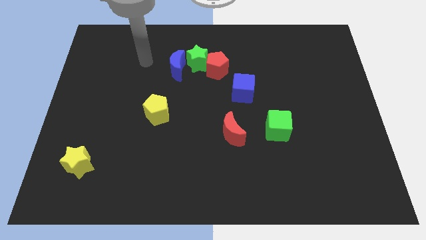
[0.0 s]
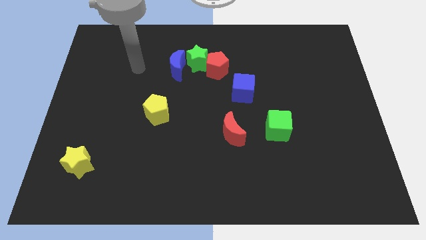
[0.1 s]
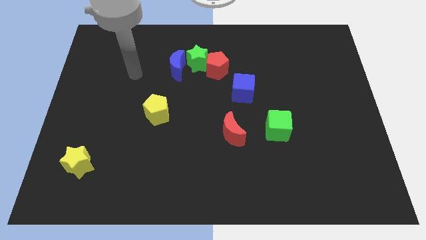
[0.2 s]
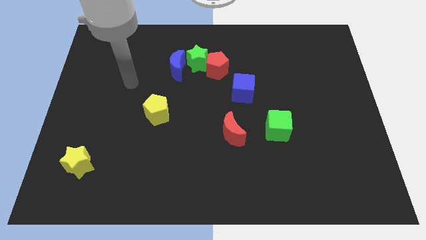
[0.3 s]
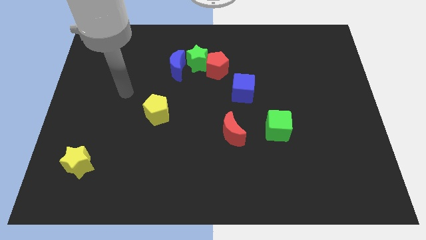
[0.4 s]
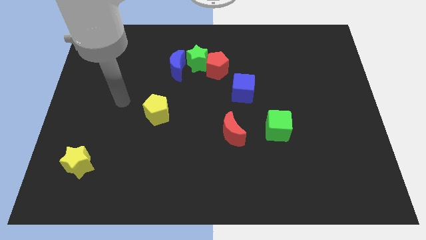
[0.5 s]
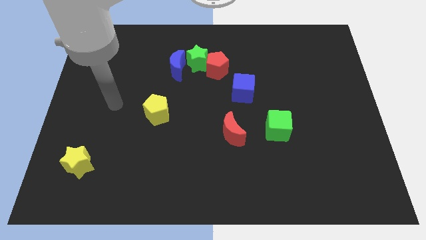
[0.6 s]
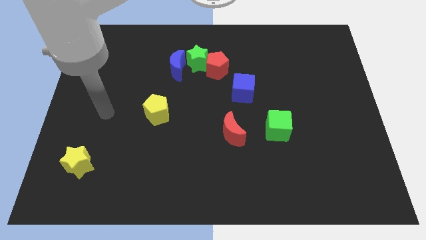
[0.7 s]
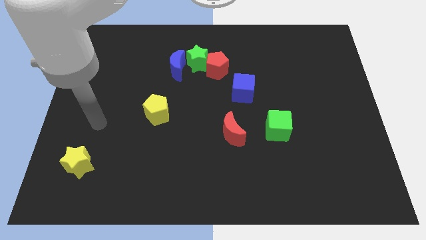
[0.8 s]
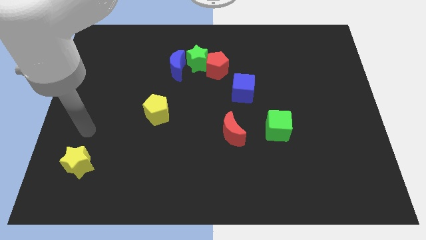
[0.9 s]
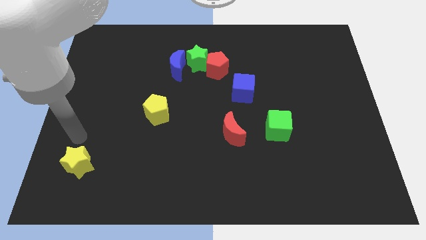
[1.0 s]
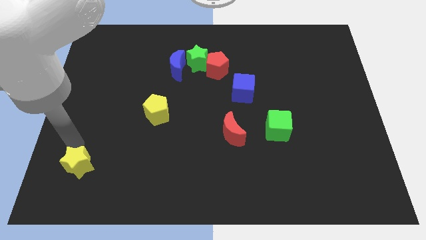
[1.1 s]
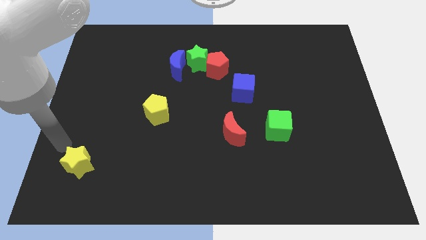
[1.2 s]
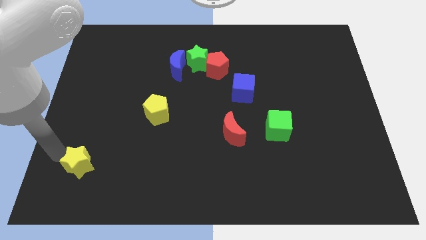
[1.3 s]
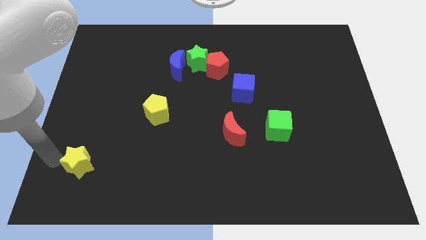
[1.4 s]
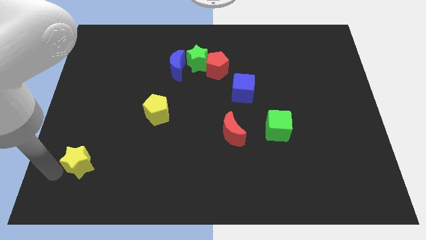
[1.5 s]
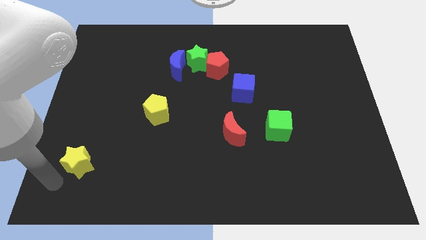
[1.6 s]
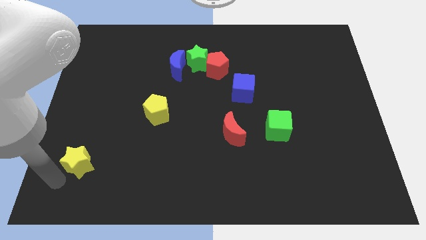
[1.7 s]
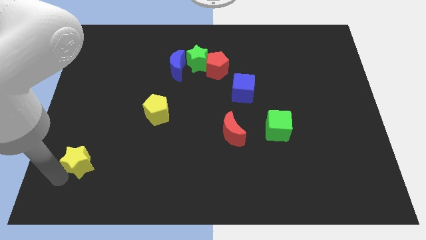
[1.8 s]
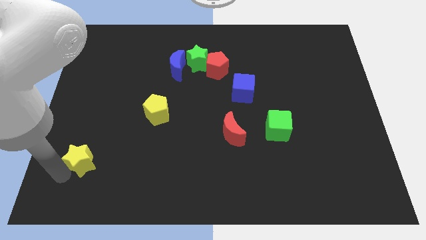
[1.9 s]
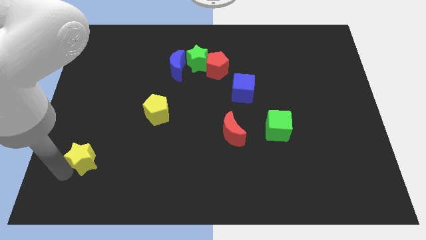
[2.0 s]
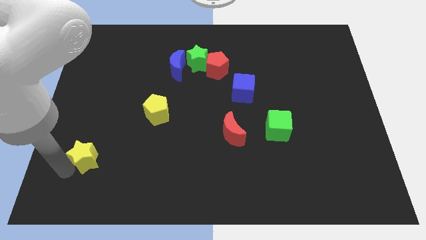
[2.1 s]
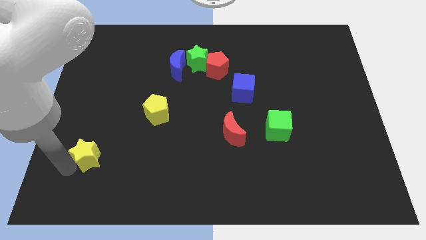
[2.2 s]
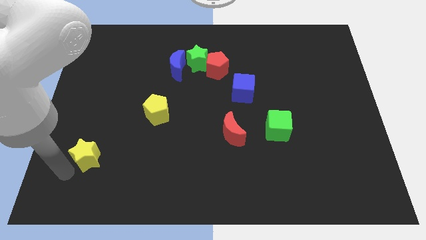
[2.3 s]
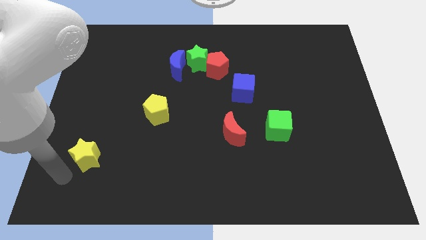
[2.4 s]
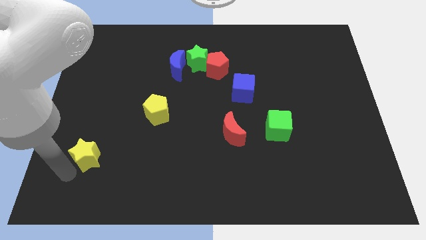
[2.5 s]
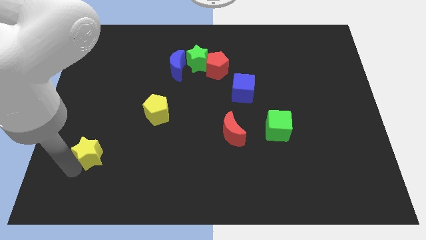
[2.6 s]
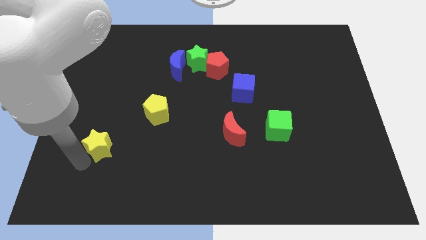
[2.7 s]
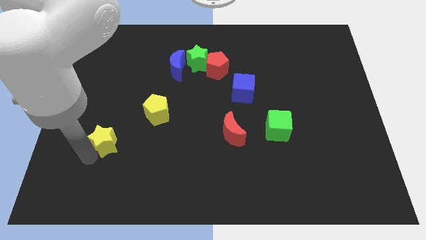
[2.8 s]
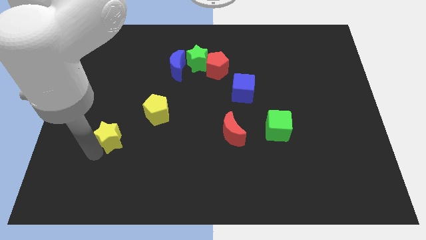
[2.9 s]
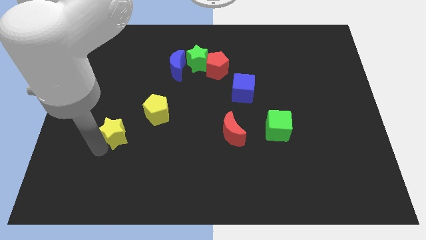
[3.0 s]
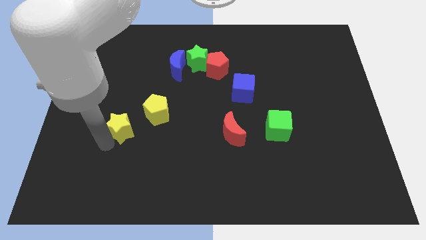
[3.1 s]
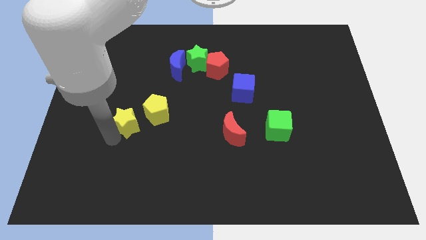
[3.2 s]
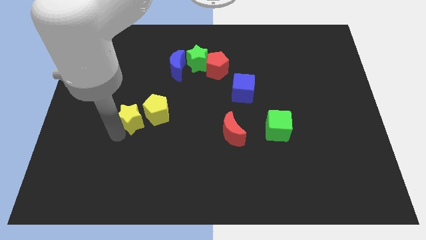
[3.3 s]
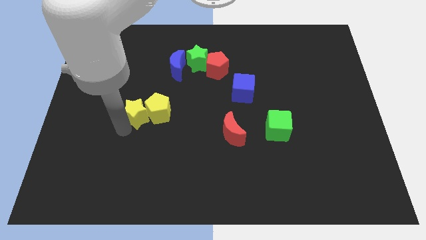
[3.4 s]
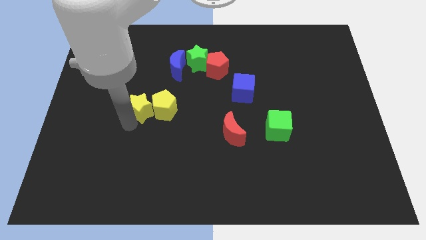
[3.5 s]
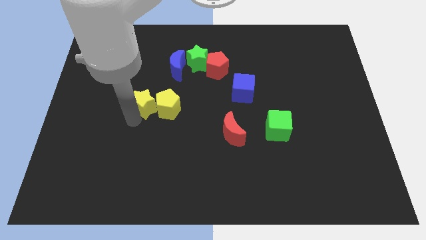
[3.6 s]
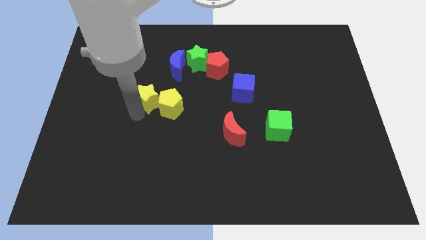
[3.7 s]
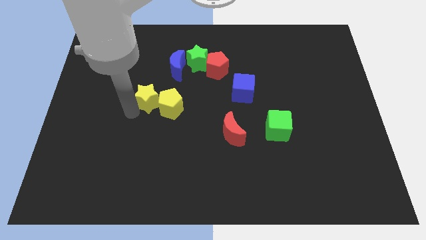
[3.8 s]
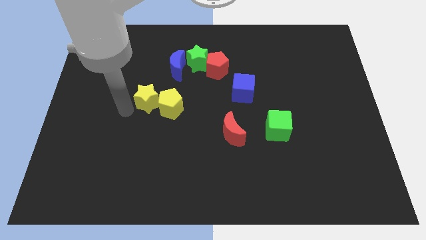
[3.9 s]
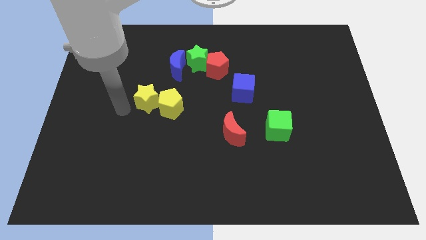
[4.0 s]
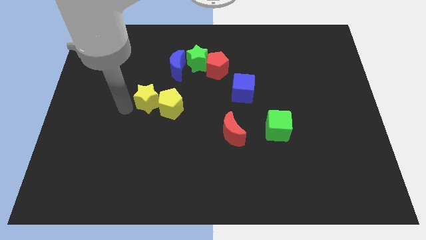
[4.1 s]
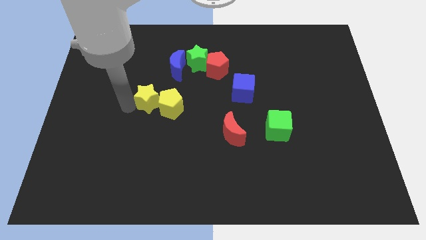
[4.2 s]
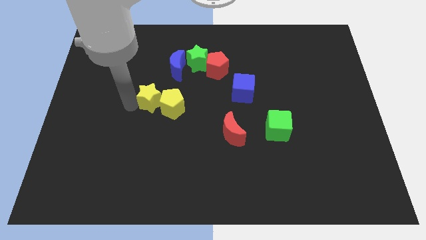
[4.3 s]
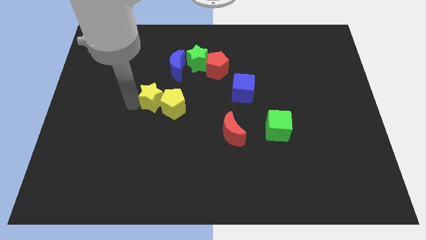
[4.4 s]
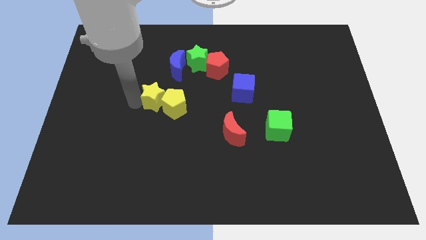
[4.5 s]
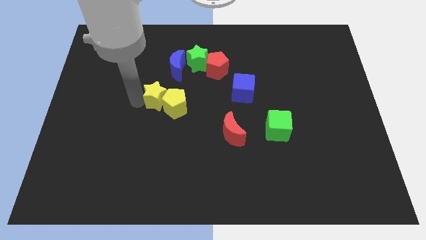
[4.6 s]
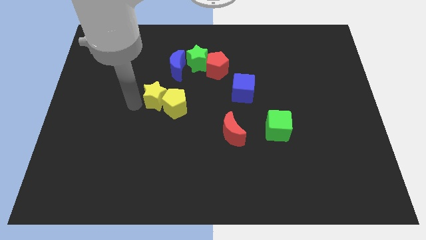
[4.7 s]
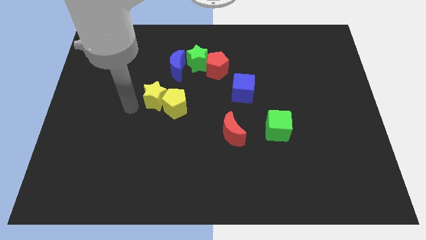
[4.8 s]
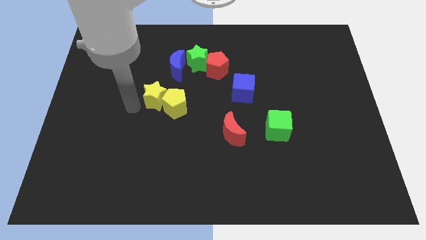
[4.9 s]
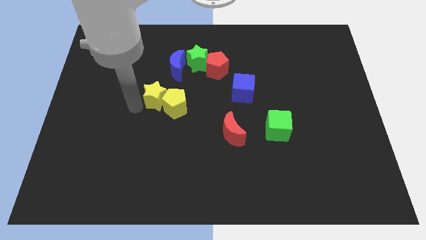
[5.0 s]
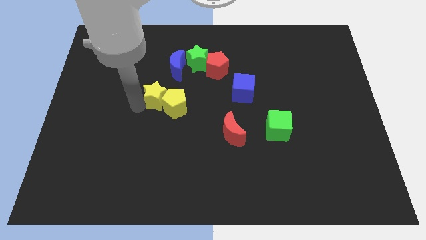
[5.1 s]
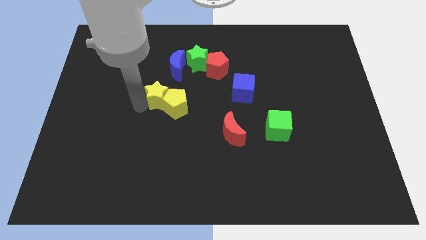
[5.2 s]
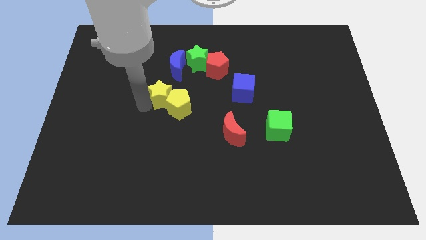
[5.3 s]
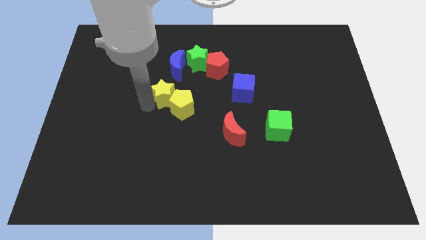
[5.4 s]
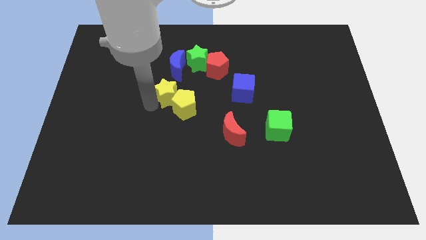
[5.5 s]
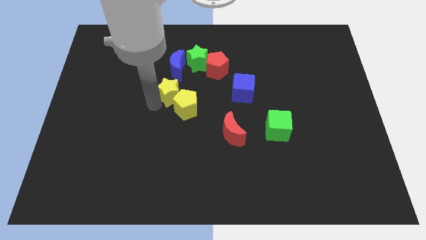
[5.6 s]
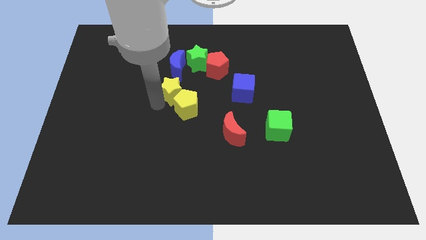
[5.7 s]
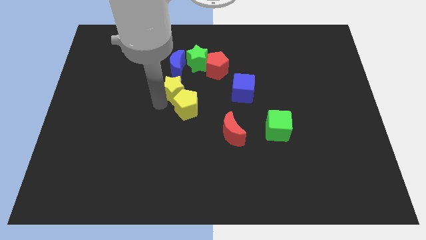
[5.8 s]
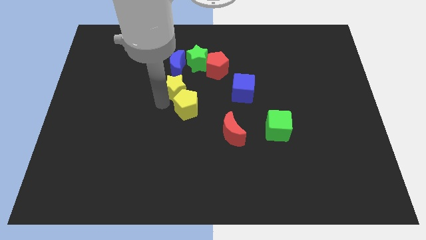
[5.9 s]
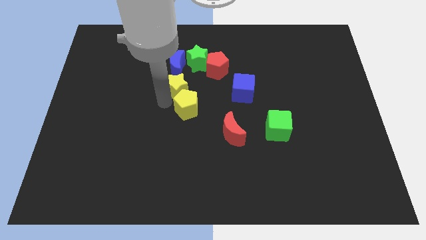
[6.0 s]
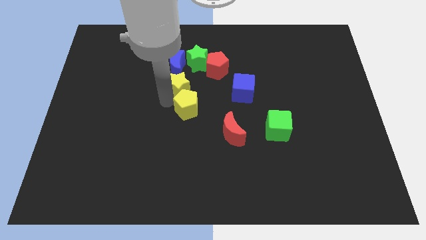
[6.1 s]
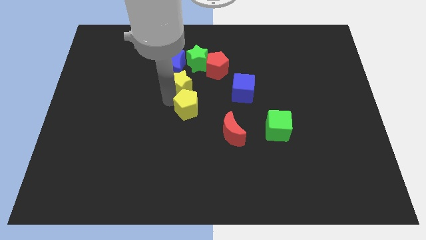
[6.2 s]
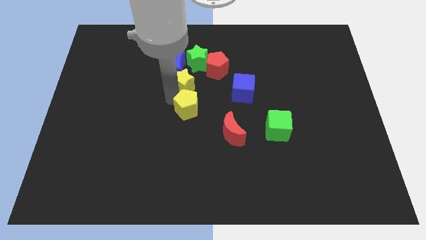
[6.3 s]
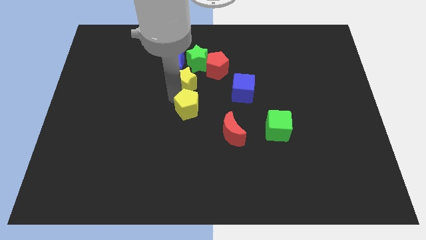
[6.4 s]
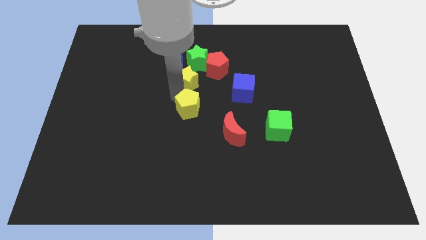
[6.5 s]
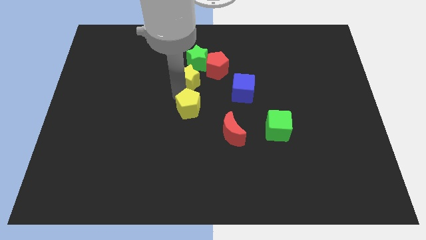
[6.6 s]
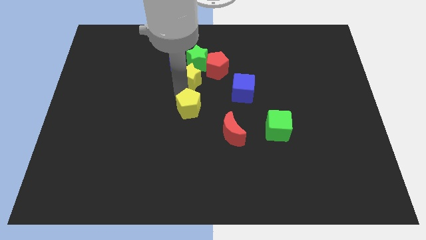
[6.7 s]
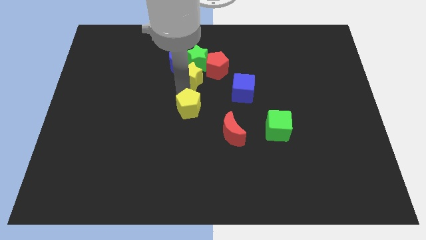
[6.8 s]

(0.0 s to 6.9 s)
move the yellow star towards the green star
